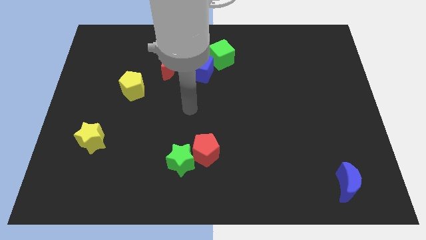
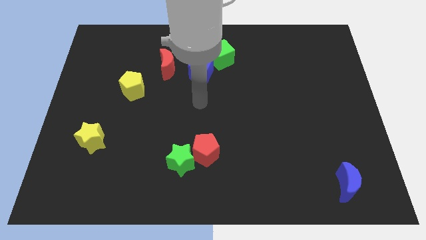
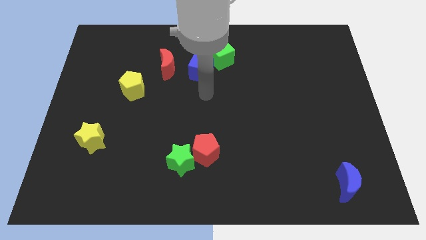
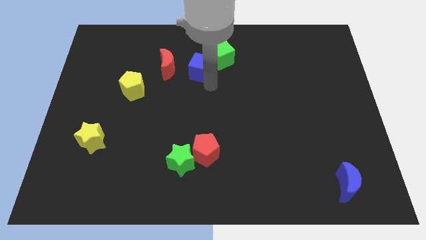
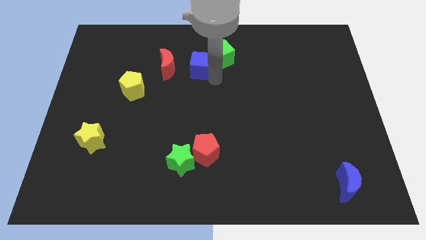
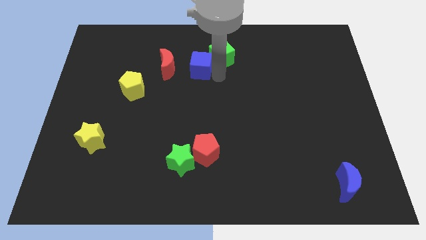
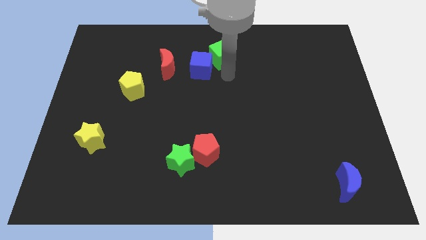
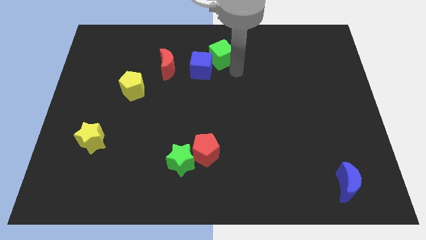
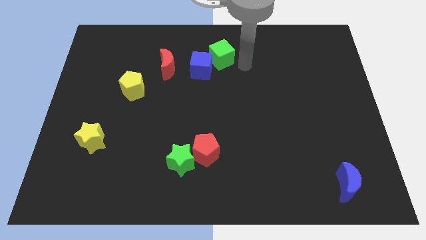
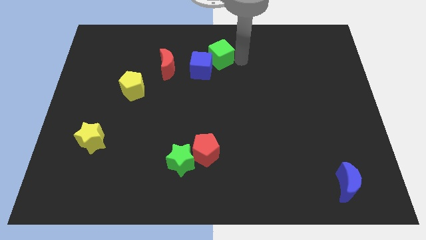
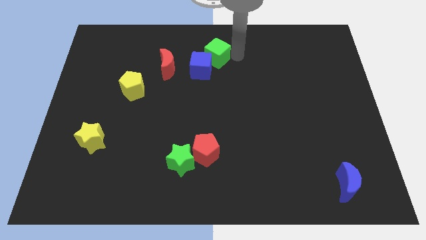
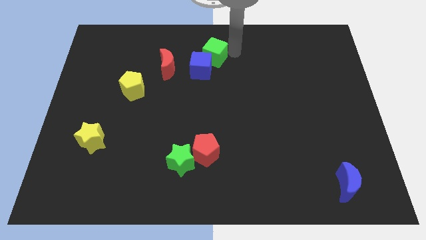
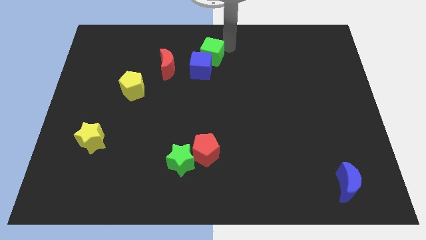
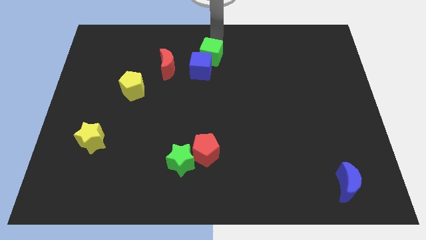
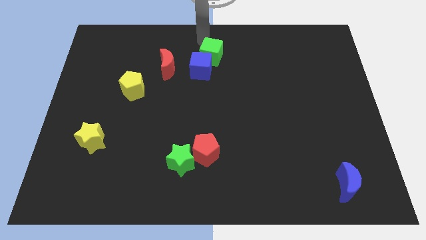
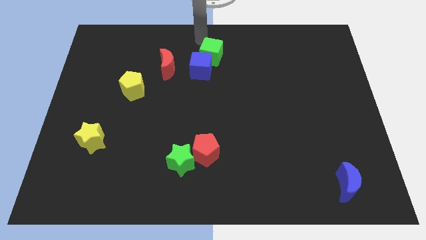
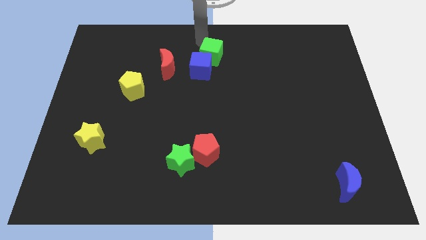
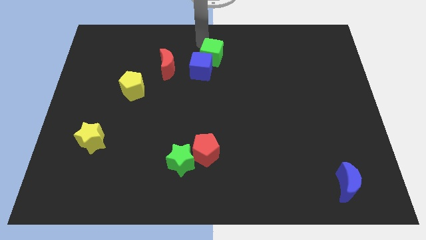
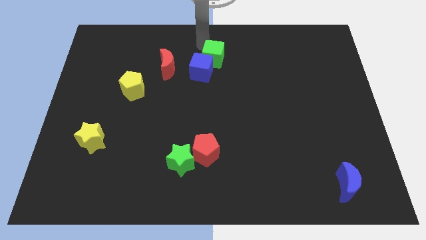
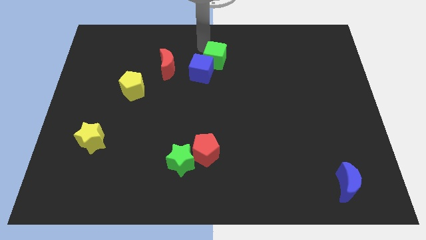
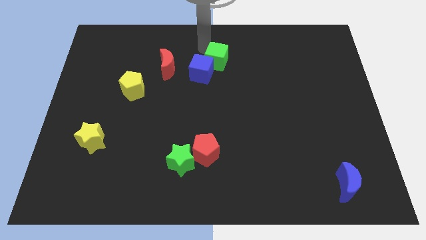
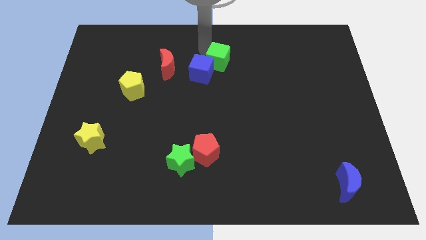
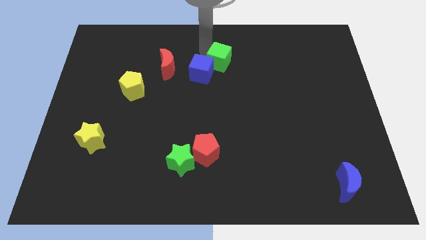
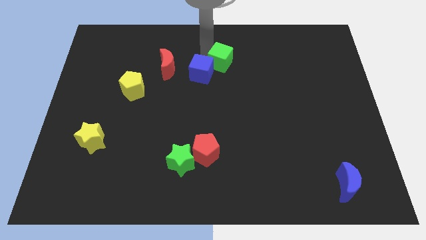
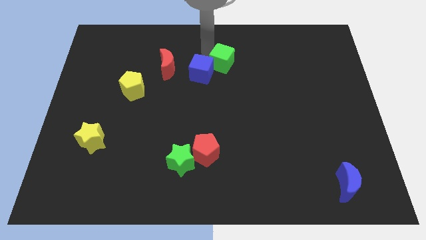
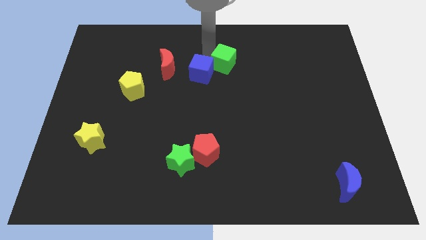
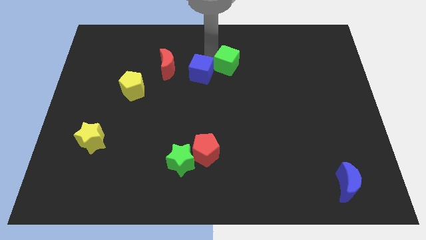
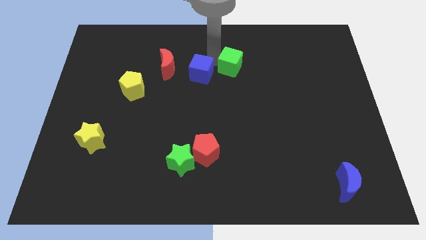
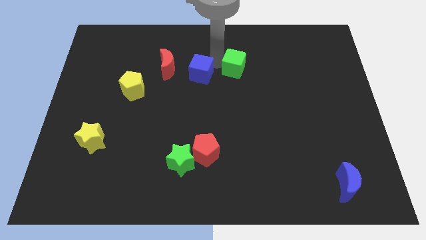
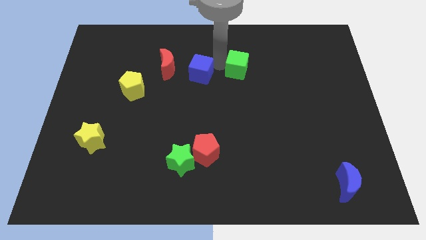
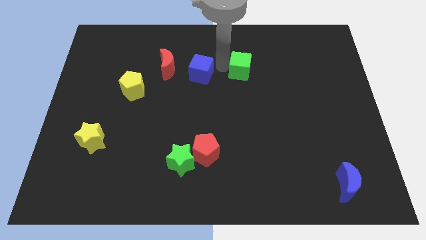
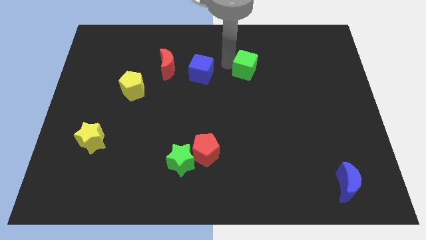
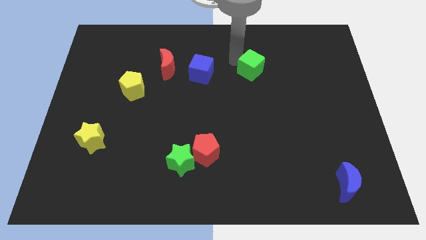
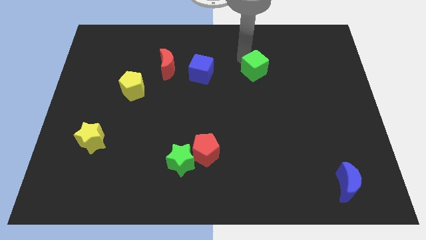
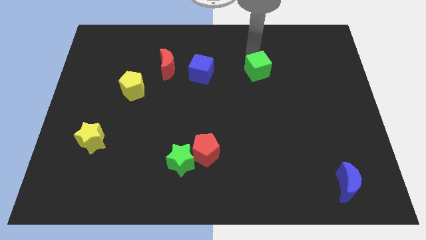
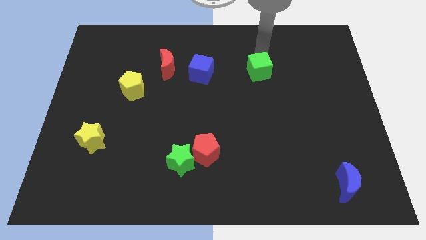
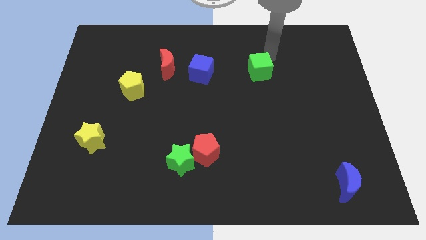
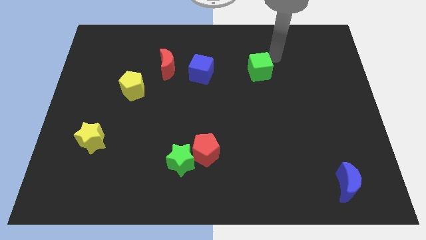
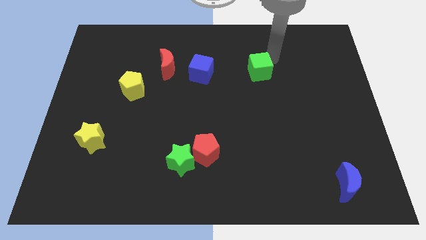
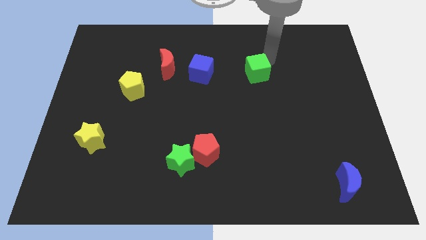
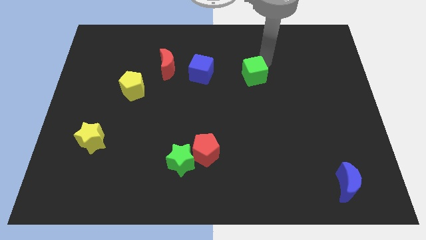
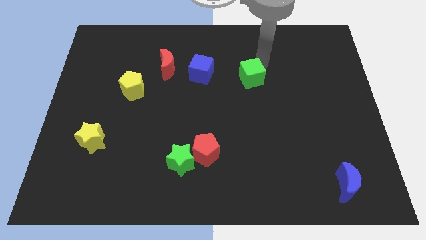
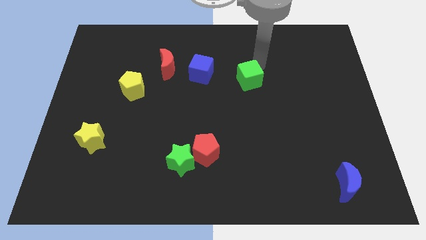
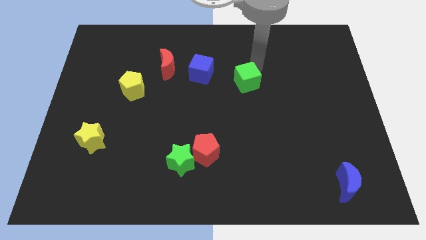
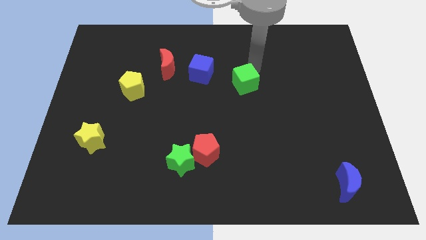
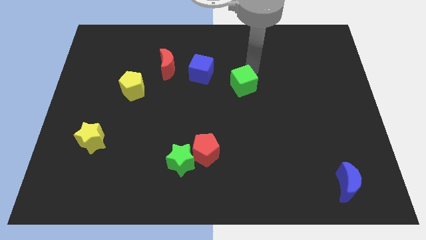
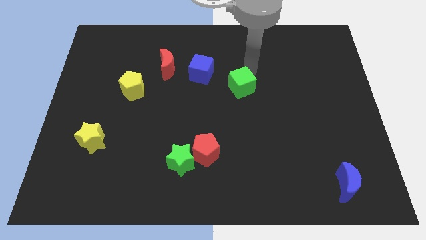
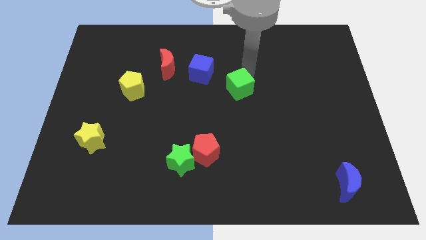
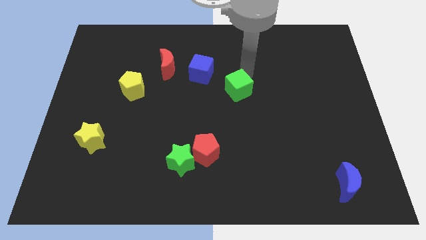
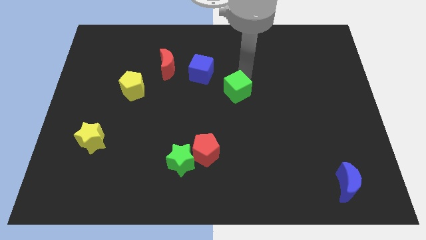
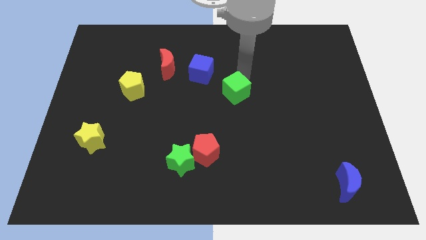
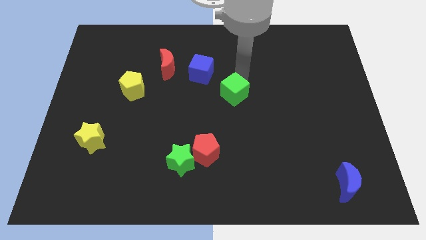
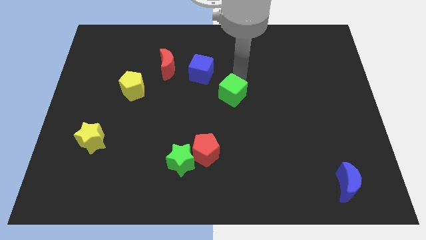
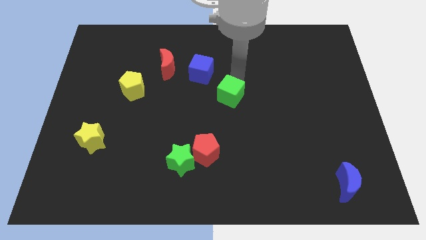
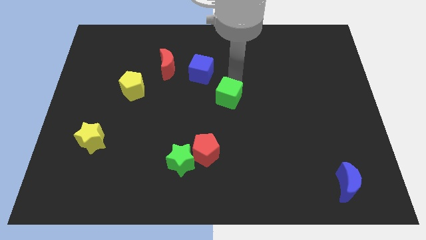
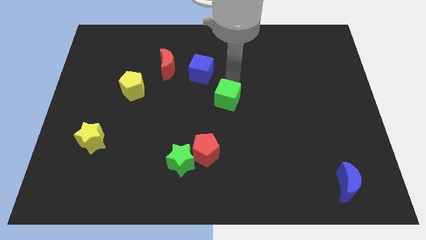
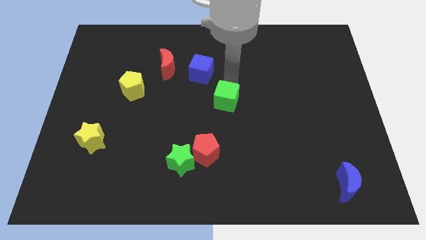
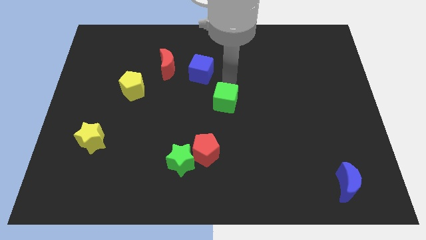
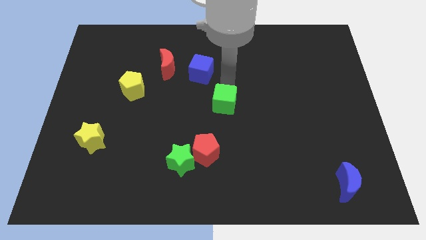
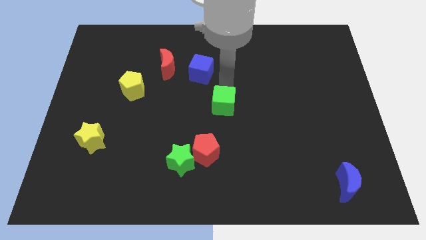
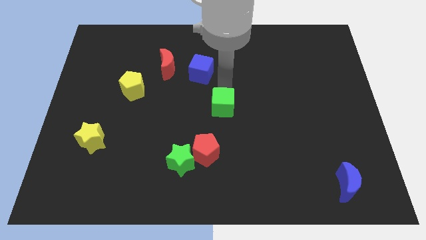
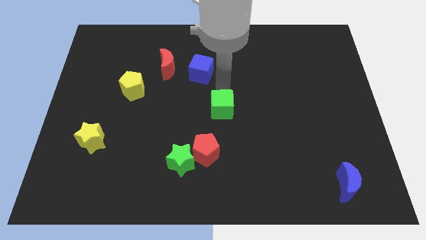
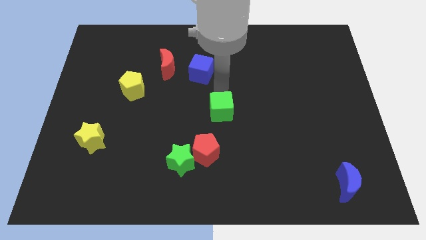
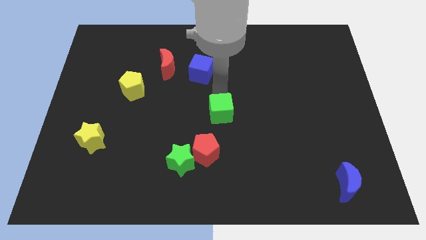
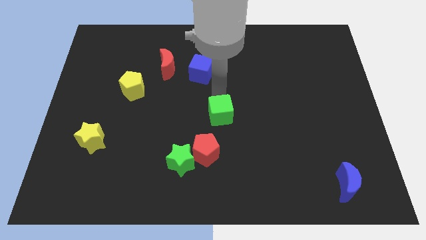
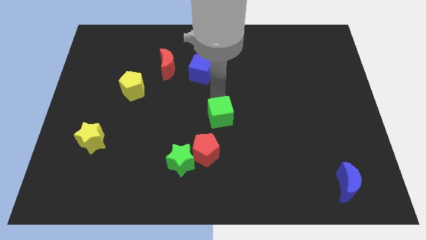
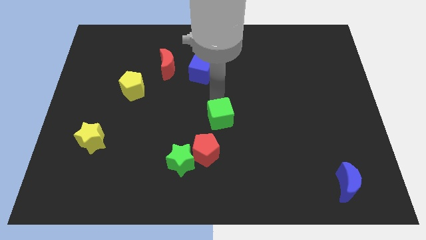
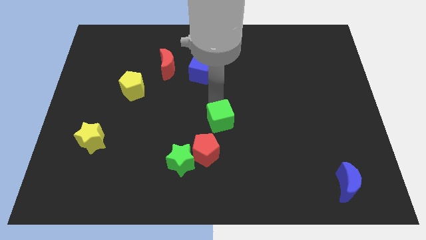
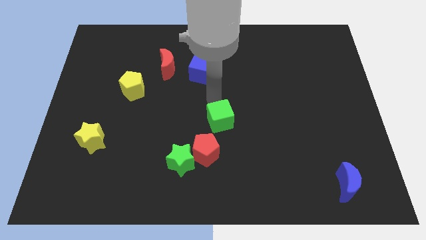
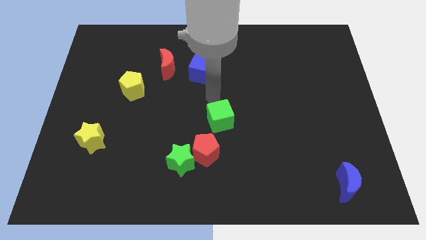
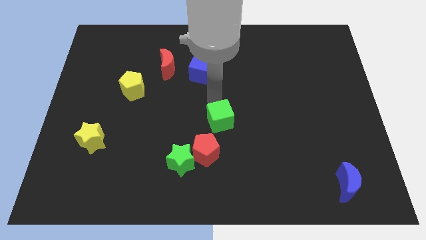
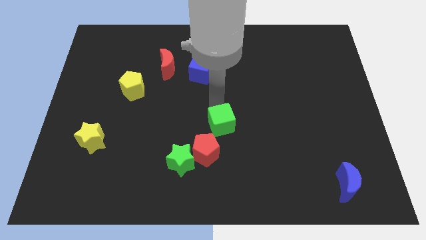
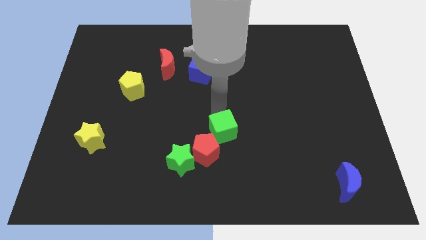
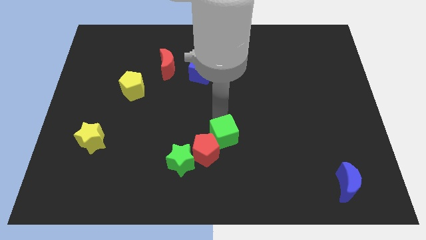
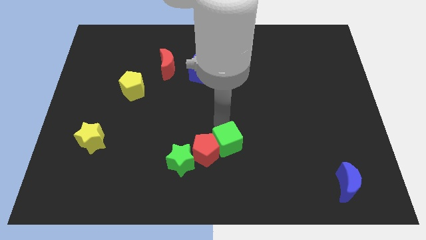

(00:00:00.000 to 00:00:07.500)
put the green cube right of the green star
